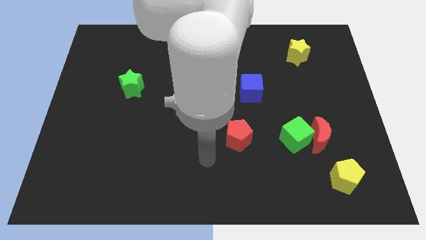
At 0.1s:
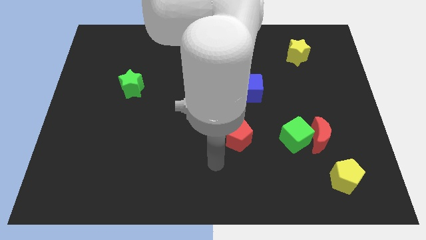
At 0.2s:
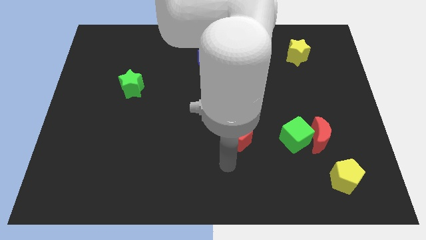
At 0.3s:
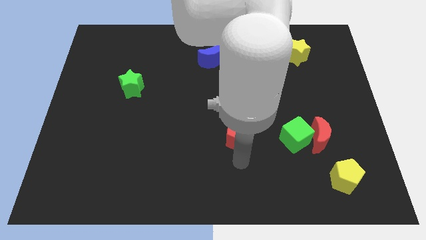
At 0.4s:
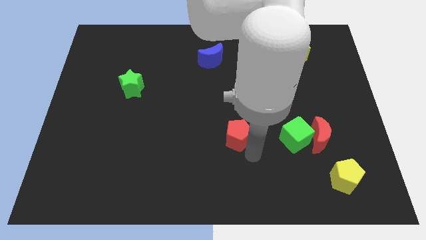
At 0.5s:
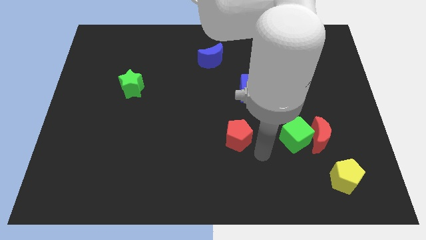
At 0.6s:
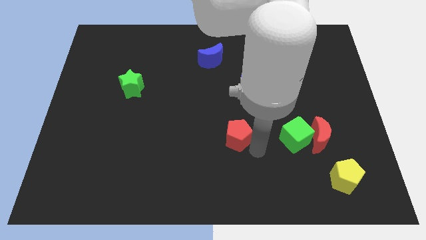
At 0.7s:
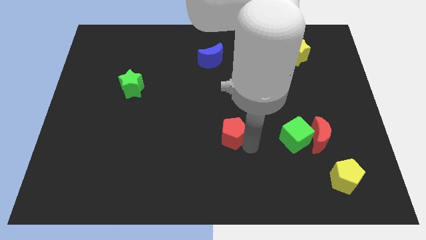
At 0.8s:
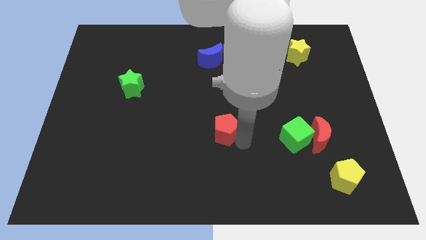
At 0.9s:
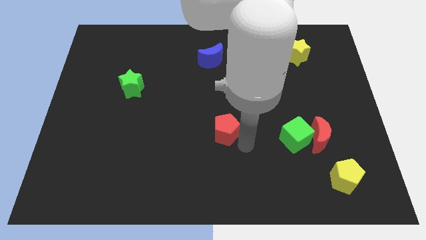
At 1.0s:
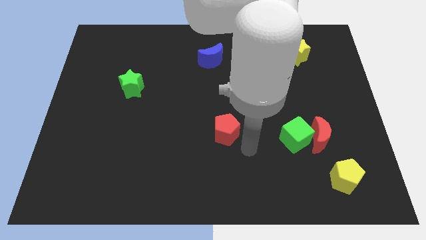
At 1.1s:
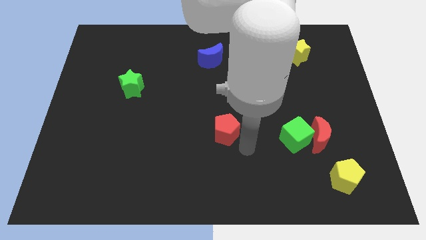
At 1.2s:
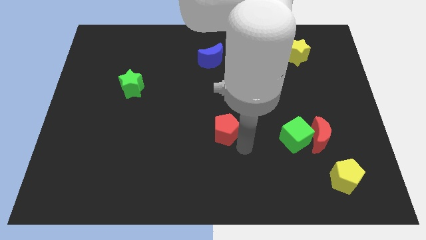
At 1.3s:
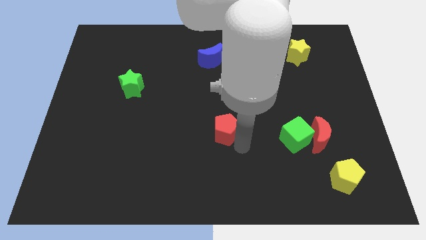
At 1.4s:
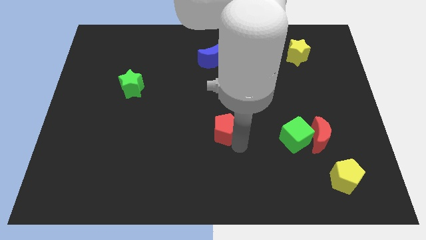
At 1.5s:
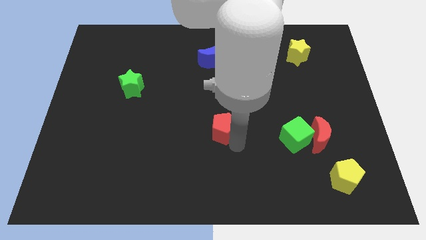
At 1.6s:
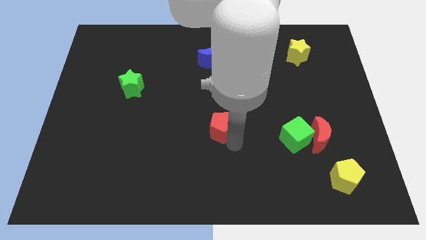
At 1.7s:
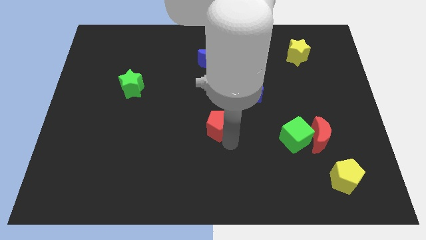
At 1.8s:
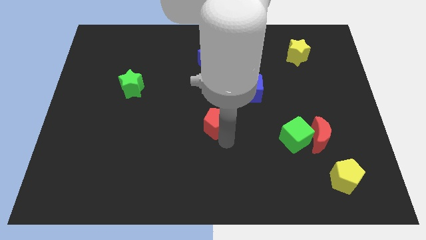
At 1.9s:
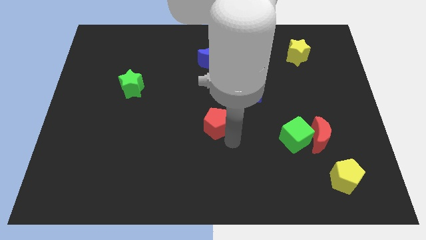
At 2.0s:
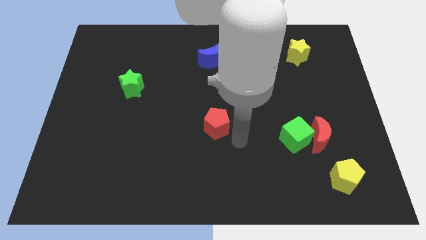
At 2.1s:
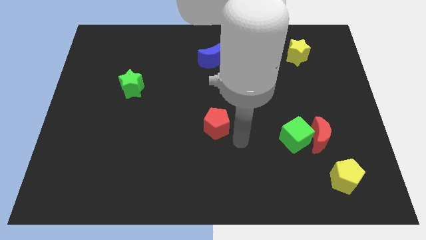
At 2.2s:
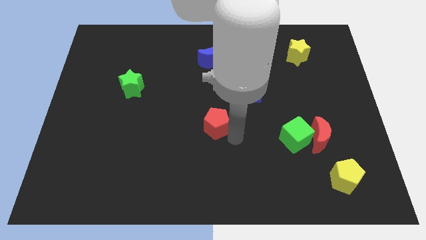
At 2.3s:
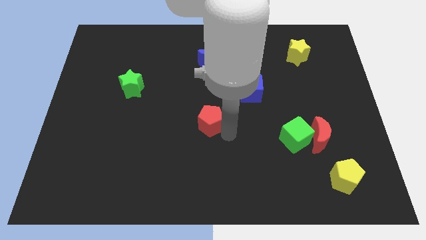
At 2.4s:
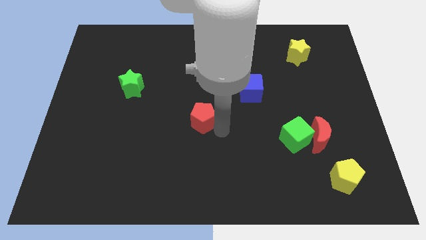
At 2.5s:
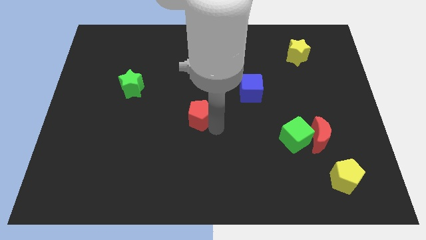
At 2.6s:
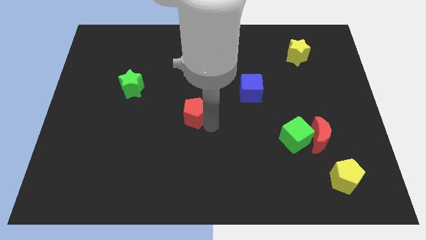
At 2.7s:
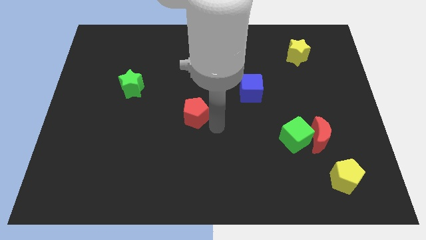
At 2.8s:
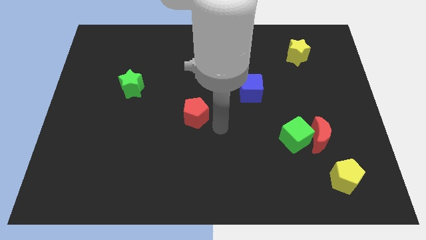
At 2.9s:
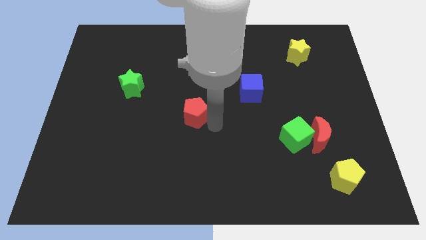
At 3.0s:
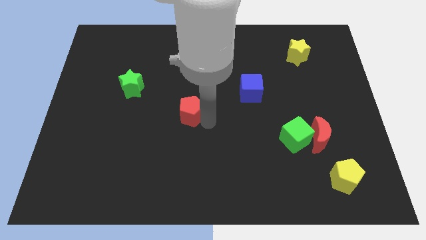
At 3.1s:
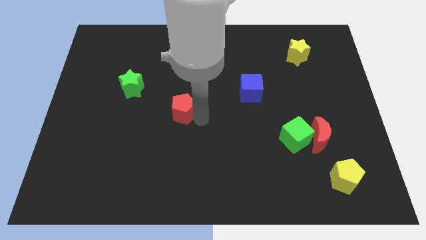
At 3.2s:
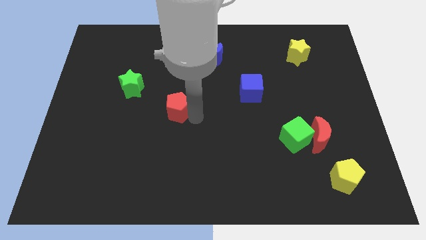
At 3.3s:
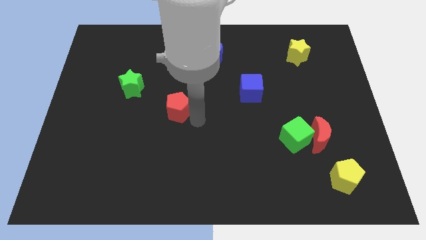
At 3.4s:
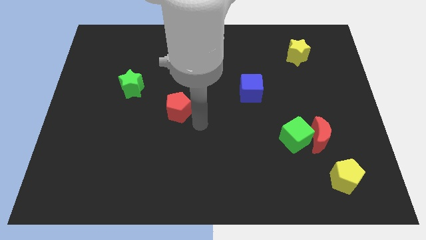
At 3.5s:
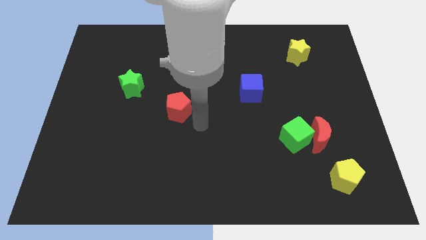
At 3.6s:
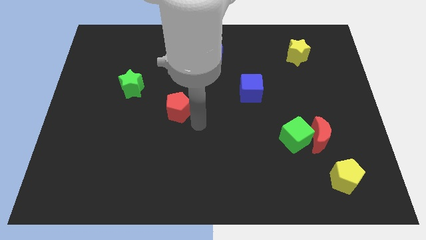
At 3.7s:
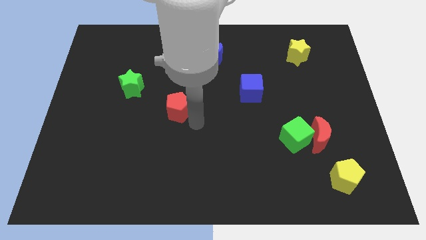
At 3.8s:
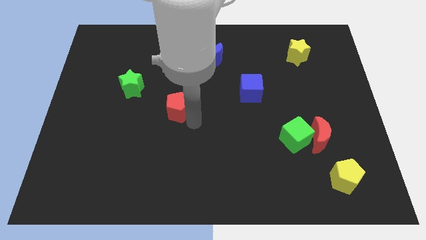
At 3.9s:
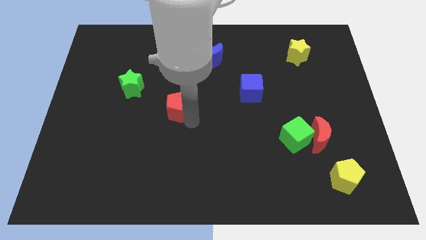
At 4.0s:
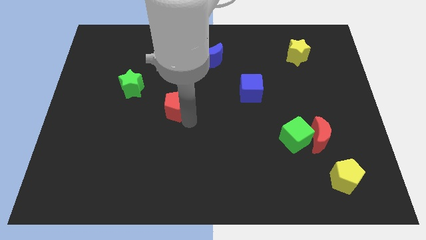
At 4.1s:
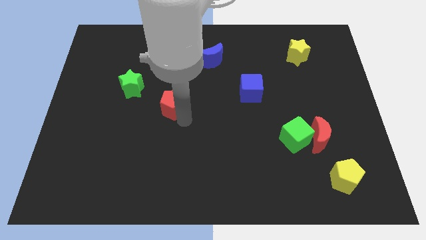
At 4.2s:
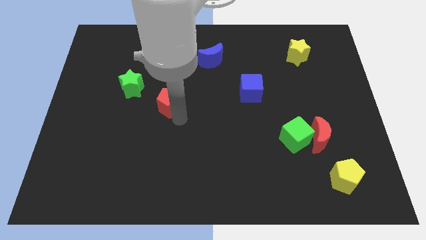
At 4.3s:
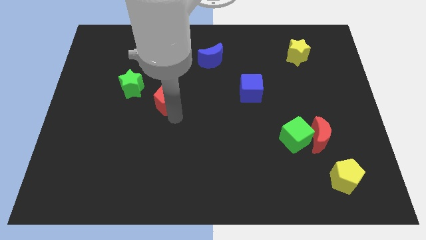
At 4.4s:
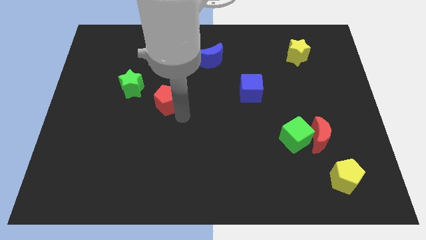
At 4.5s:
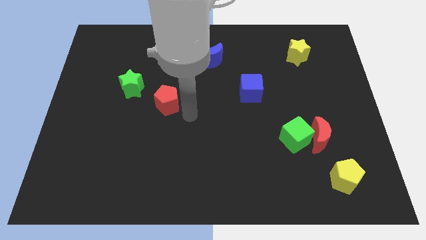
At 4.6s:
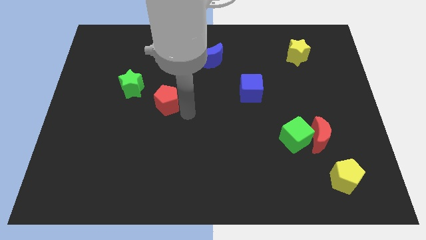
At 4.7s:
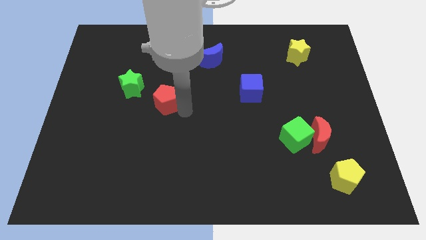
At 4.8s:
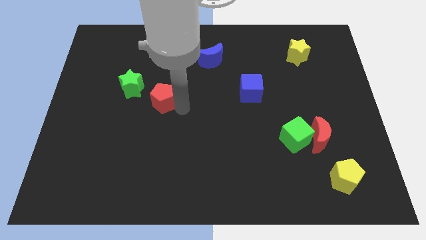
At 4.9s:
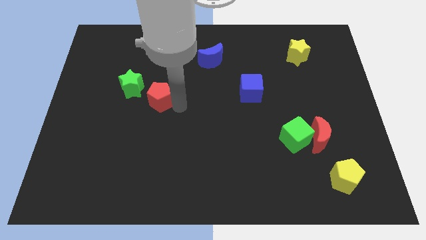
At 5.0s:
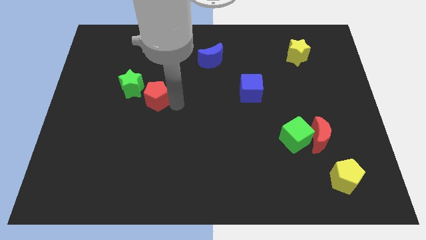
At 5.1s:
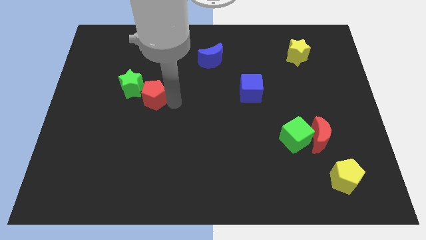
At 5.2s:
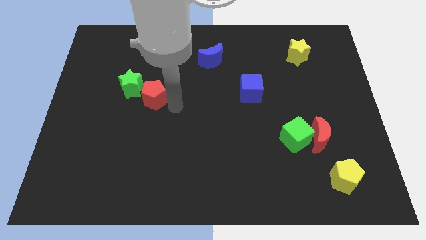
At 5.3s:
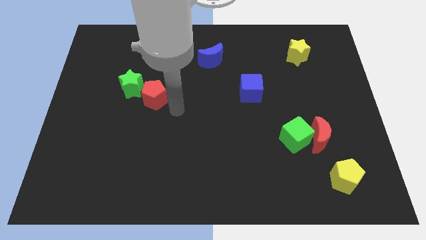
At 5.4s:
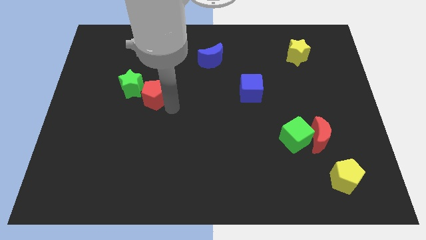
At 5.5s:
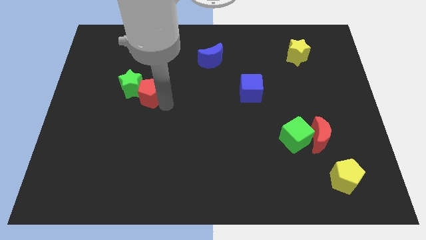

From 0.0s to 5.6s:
slide the red pentagon close to the green star

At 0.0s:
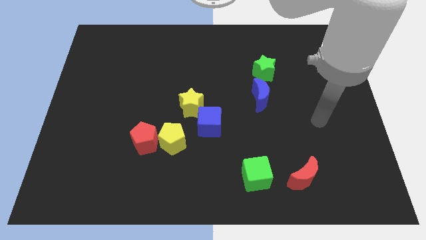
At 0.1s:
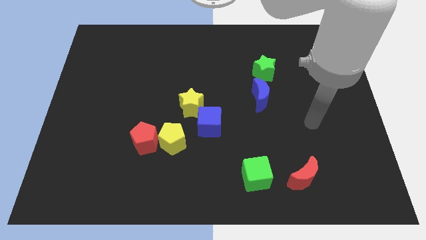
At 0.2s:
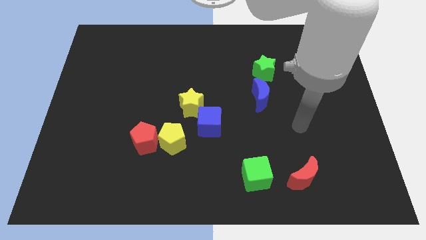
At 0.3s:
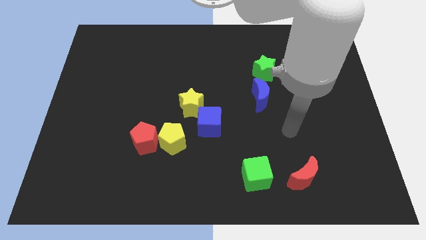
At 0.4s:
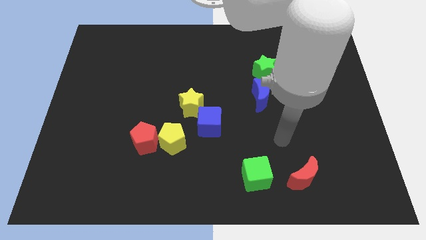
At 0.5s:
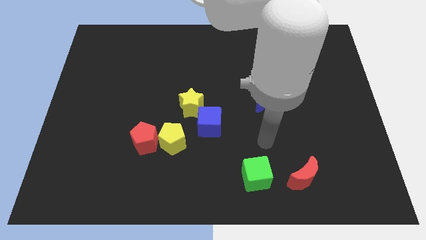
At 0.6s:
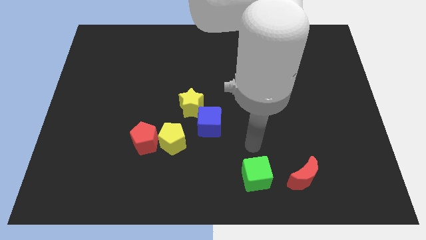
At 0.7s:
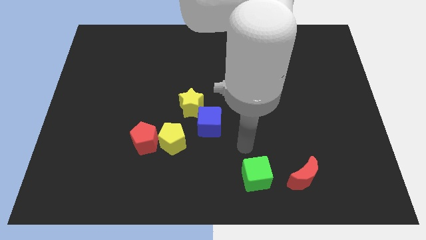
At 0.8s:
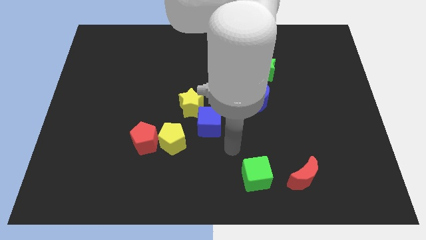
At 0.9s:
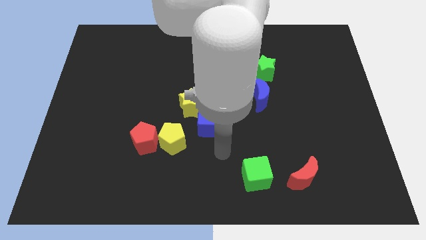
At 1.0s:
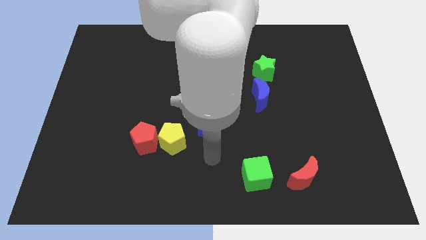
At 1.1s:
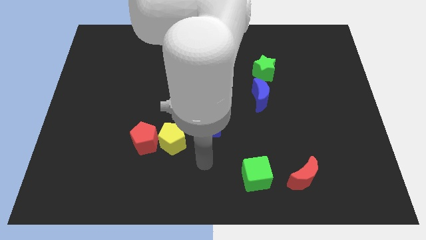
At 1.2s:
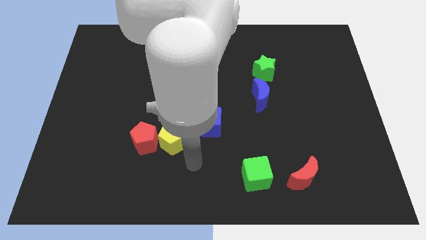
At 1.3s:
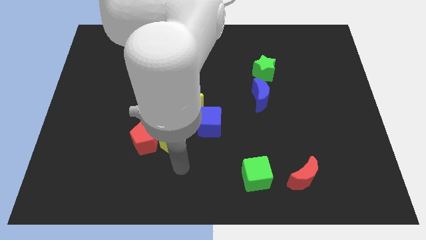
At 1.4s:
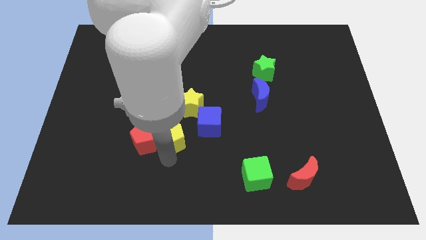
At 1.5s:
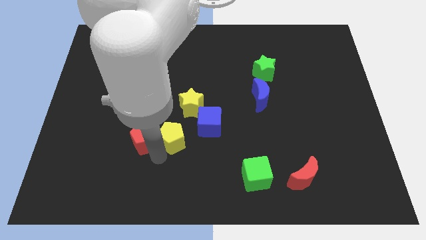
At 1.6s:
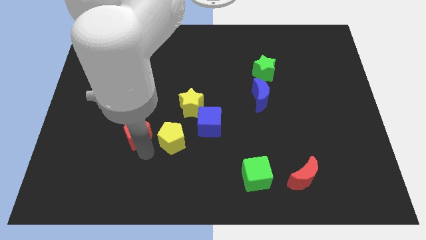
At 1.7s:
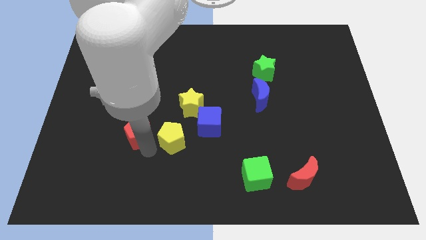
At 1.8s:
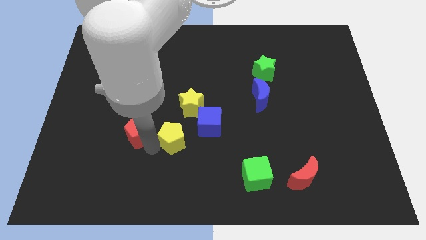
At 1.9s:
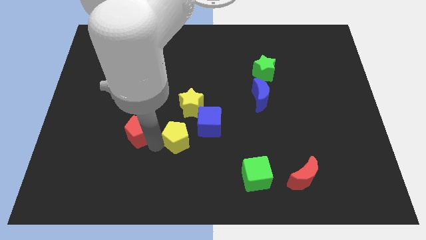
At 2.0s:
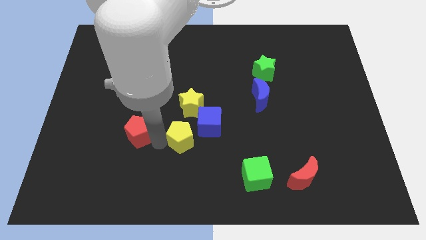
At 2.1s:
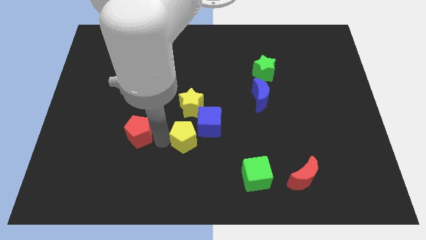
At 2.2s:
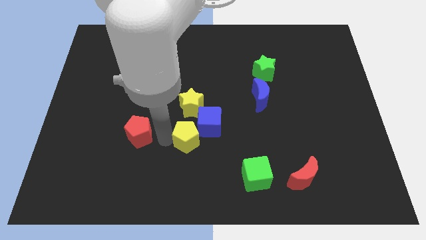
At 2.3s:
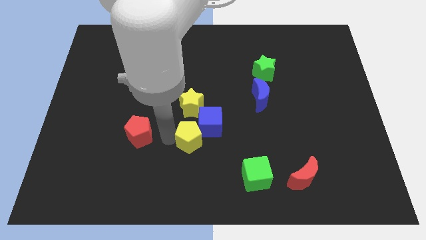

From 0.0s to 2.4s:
push the yellow pentagon to the blue cube

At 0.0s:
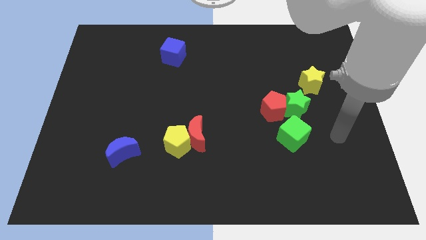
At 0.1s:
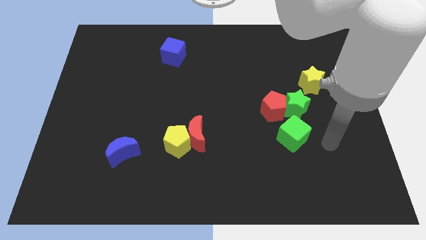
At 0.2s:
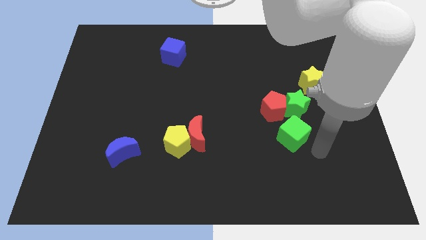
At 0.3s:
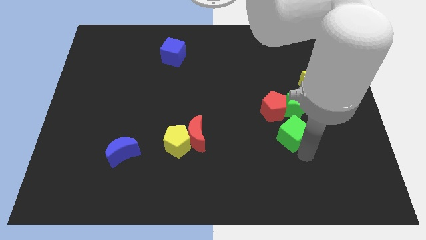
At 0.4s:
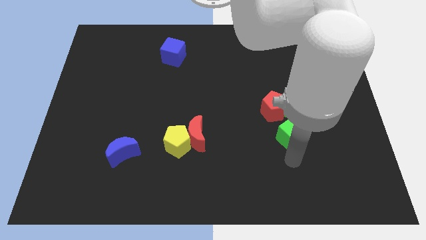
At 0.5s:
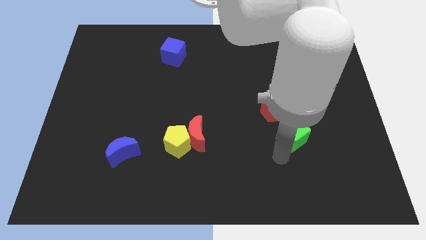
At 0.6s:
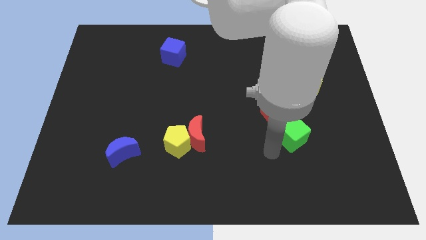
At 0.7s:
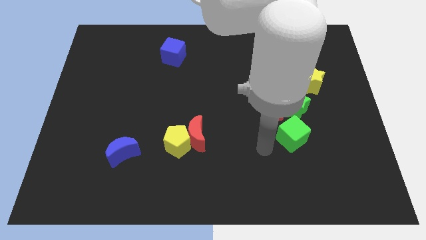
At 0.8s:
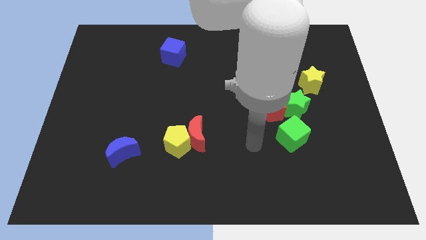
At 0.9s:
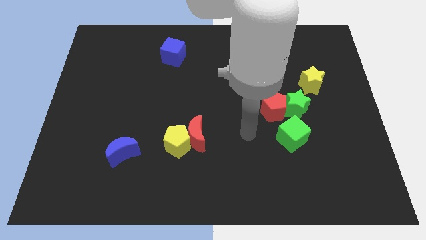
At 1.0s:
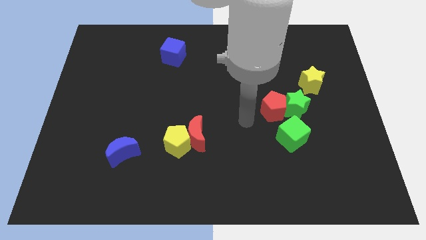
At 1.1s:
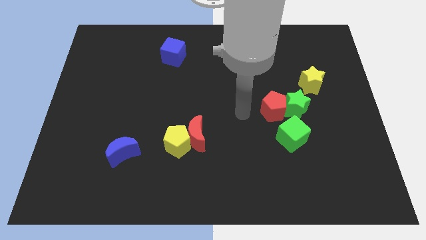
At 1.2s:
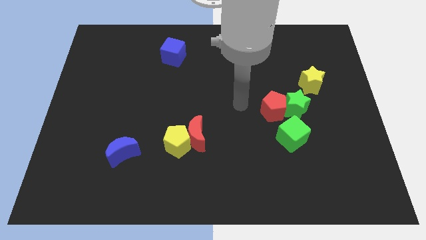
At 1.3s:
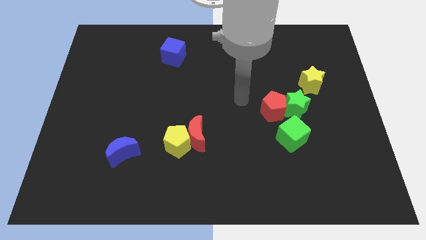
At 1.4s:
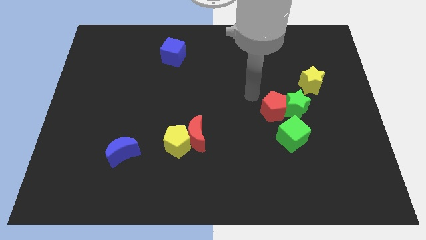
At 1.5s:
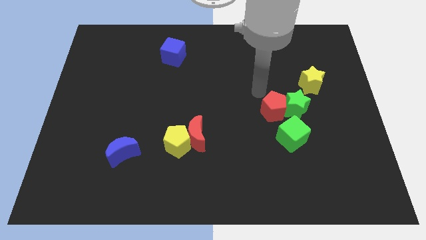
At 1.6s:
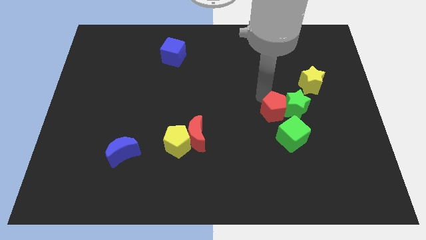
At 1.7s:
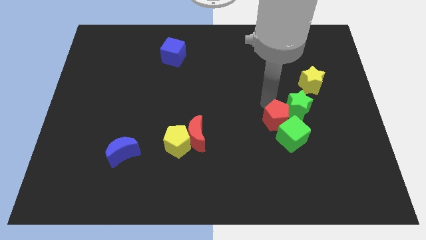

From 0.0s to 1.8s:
push the red pentagon close to the green cube
